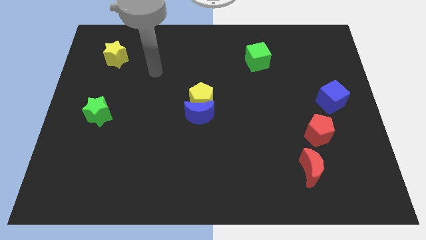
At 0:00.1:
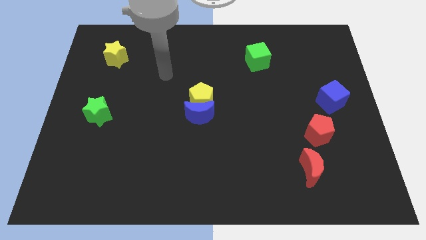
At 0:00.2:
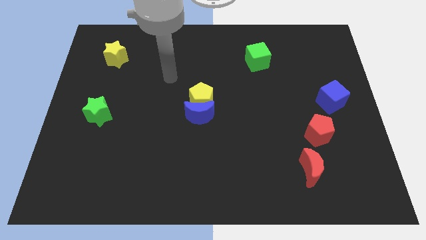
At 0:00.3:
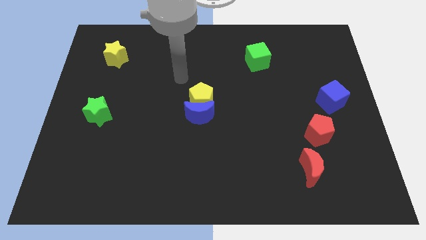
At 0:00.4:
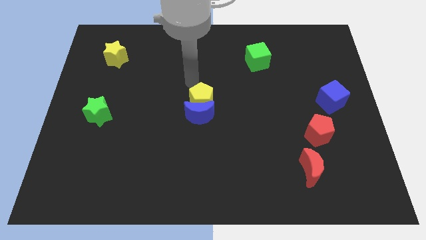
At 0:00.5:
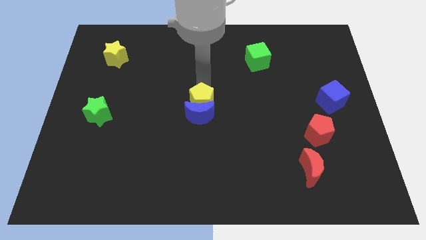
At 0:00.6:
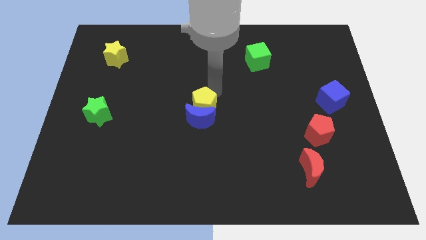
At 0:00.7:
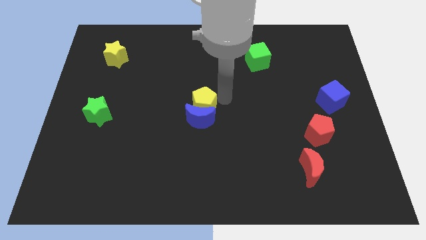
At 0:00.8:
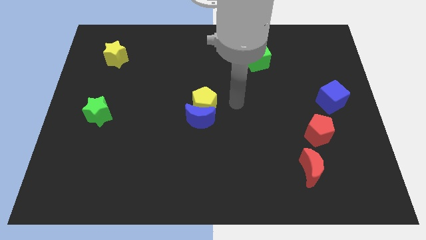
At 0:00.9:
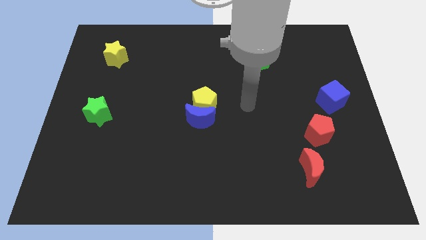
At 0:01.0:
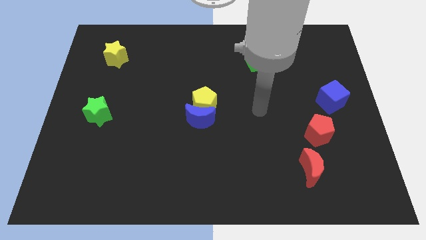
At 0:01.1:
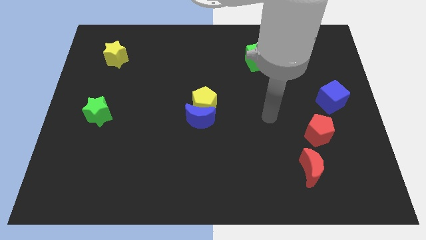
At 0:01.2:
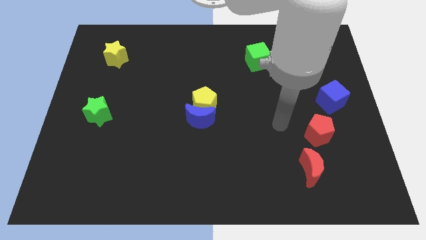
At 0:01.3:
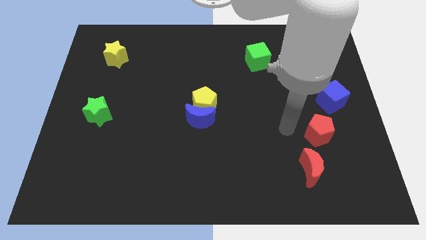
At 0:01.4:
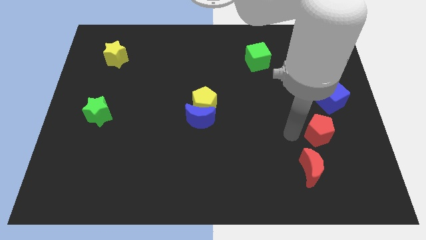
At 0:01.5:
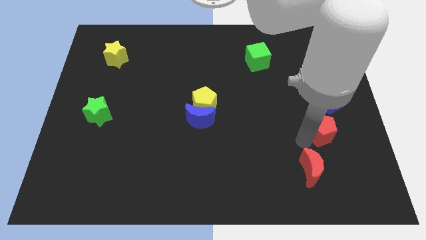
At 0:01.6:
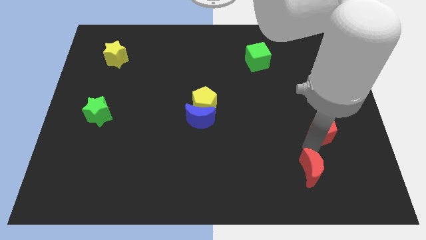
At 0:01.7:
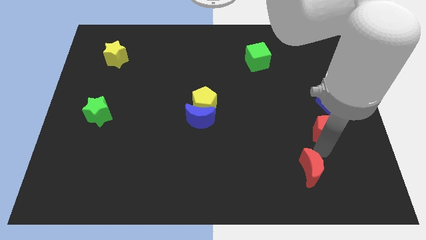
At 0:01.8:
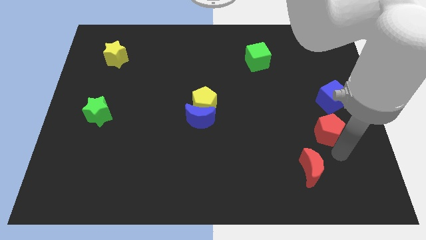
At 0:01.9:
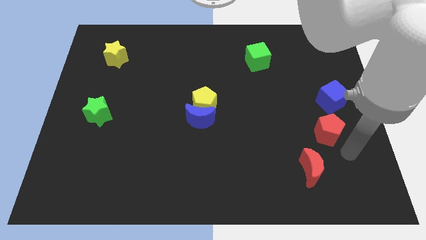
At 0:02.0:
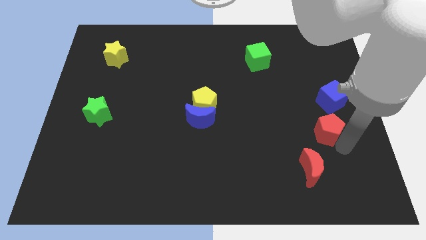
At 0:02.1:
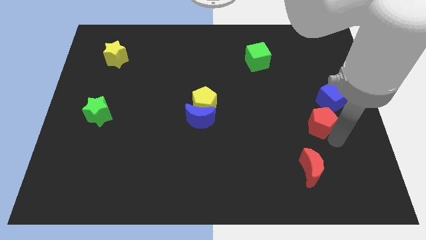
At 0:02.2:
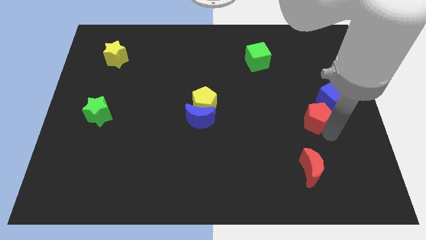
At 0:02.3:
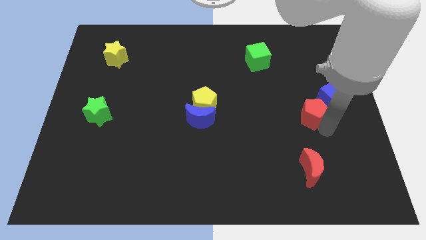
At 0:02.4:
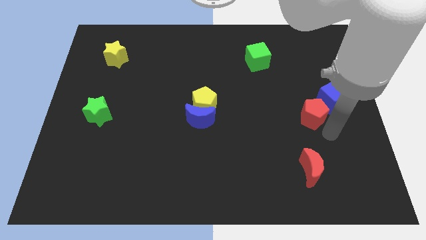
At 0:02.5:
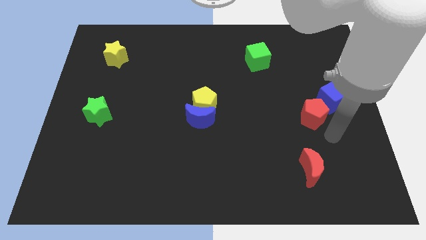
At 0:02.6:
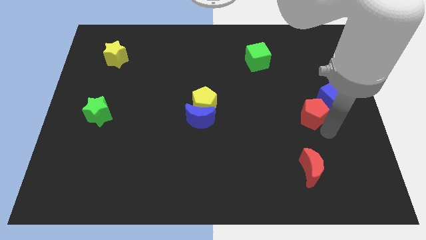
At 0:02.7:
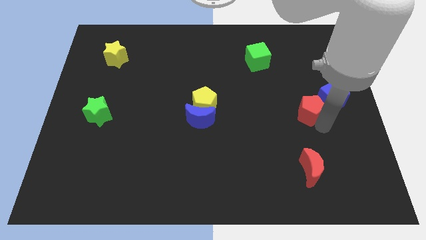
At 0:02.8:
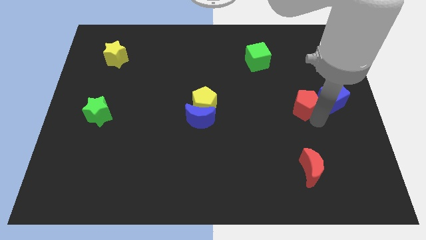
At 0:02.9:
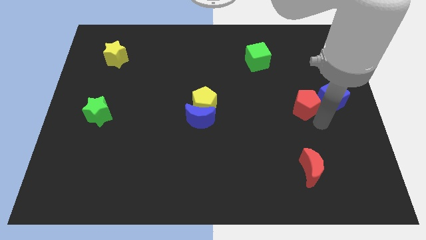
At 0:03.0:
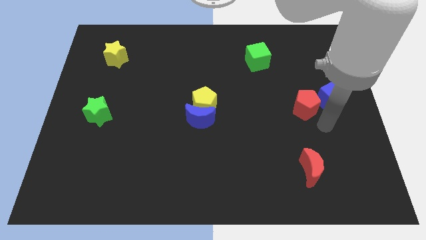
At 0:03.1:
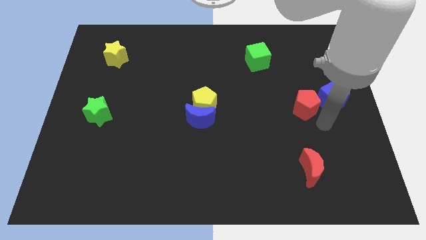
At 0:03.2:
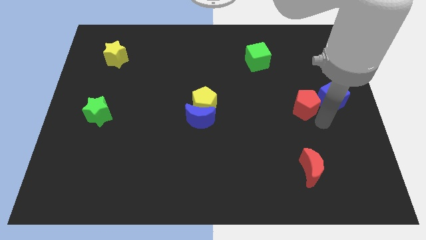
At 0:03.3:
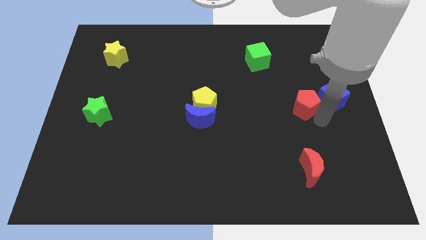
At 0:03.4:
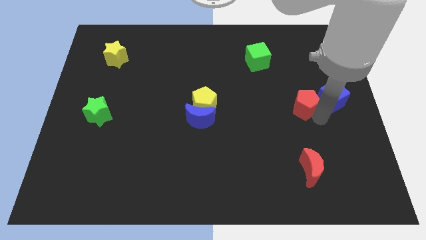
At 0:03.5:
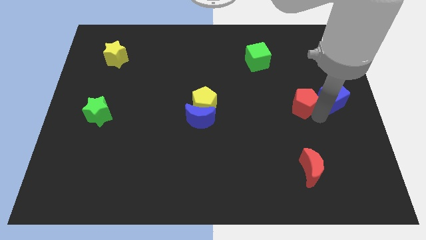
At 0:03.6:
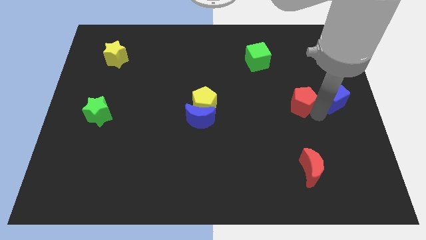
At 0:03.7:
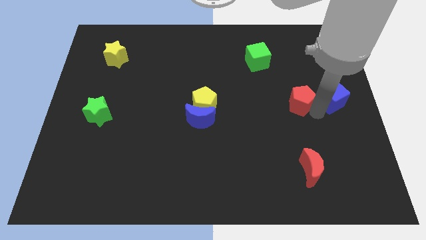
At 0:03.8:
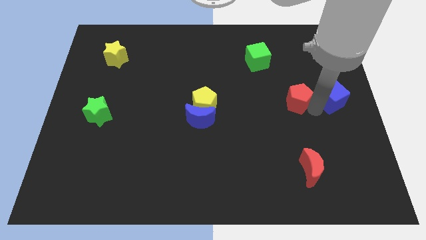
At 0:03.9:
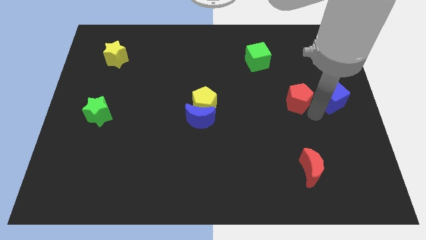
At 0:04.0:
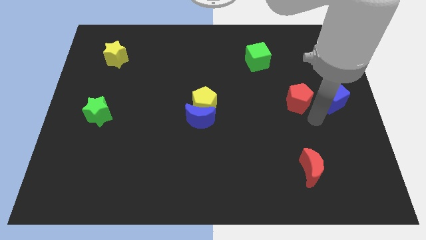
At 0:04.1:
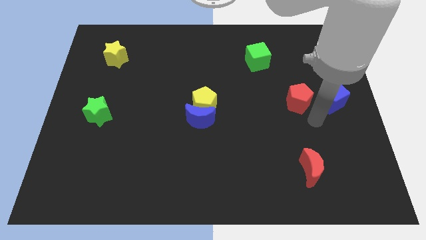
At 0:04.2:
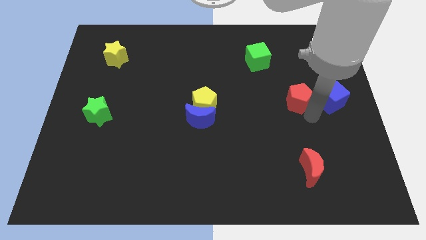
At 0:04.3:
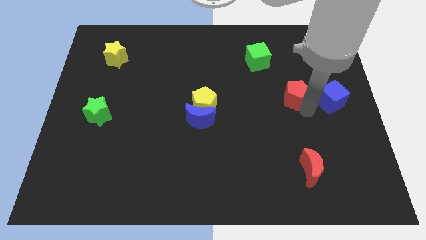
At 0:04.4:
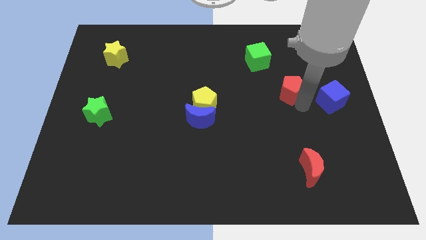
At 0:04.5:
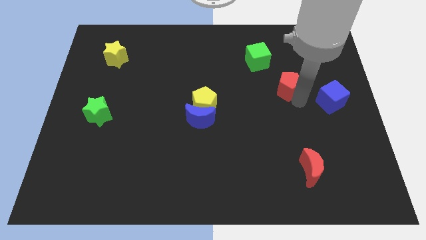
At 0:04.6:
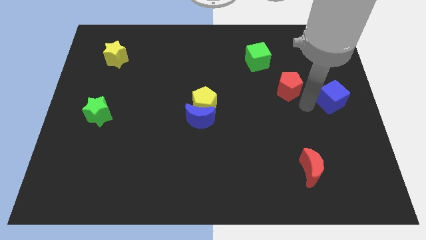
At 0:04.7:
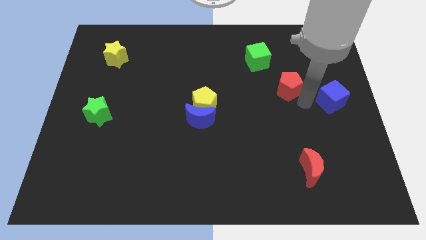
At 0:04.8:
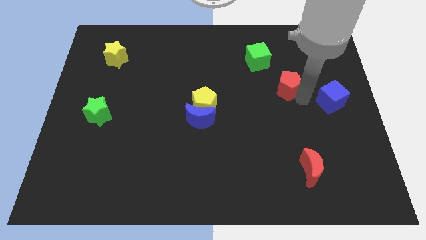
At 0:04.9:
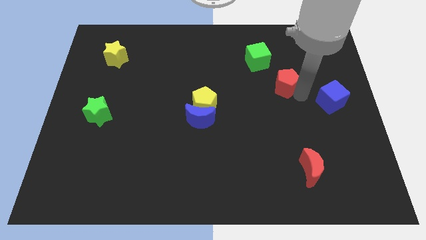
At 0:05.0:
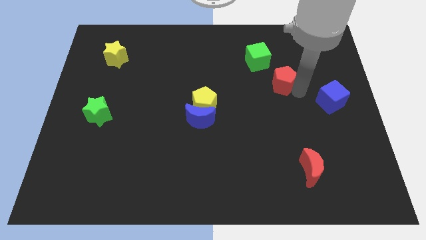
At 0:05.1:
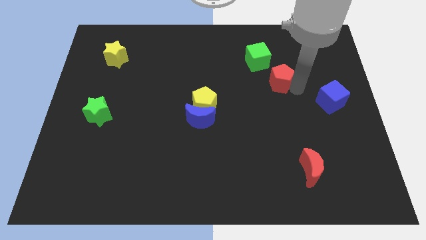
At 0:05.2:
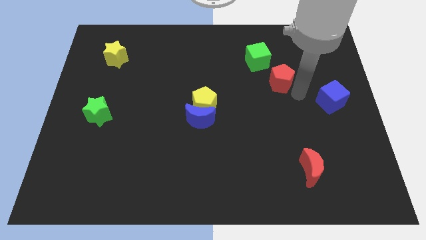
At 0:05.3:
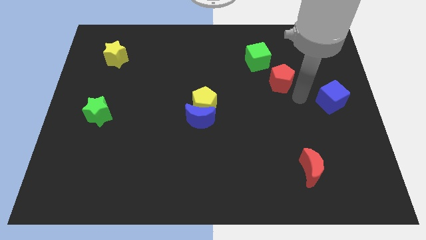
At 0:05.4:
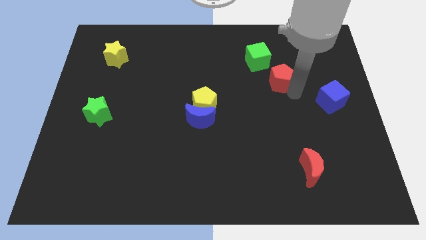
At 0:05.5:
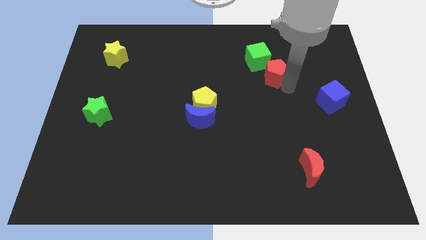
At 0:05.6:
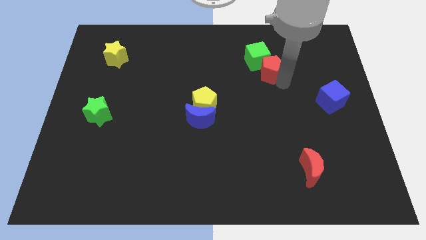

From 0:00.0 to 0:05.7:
move the red pentagon to the green cube

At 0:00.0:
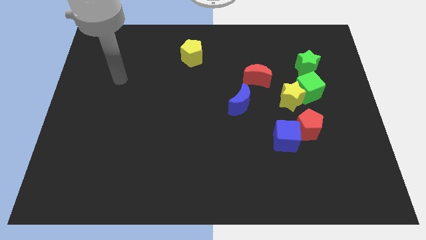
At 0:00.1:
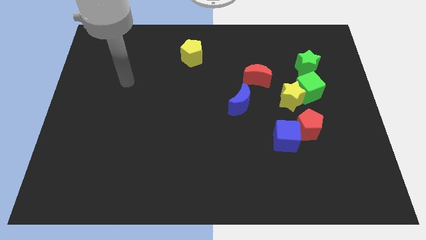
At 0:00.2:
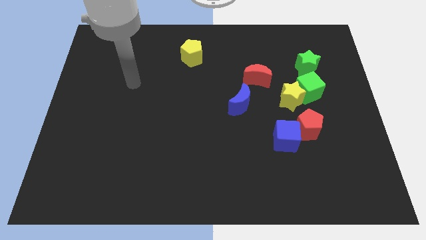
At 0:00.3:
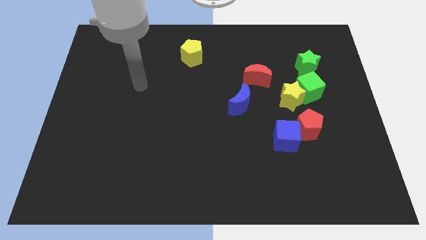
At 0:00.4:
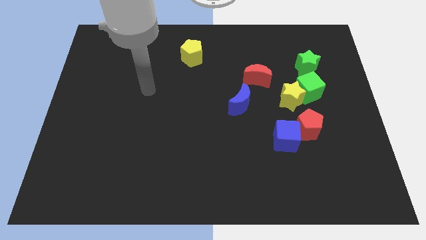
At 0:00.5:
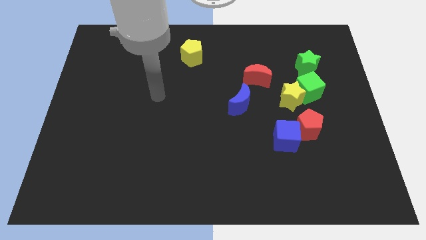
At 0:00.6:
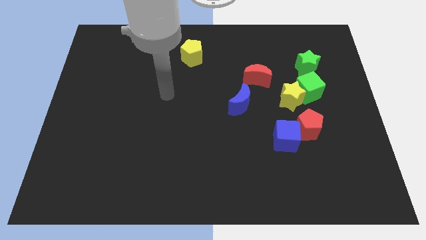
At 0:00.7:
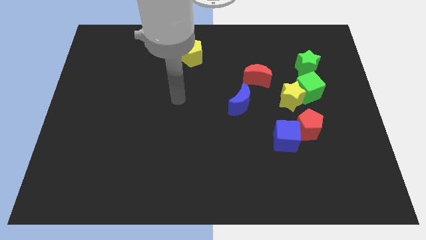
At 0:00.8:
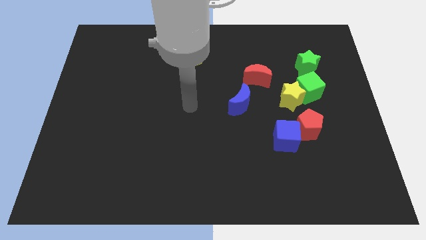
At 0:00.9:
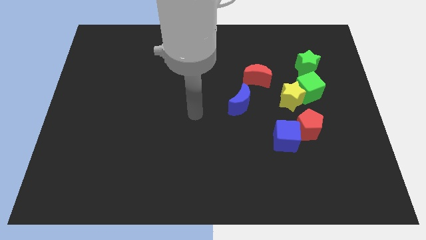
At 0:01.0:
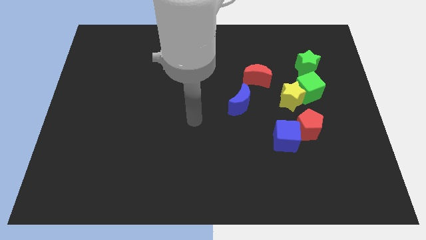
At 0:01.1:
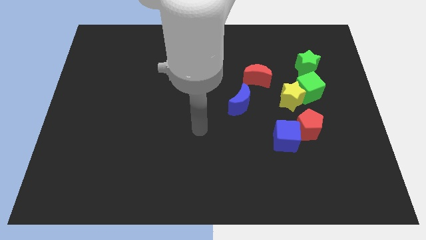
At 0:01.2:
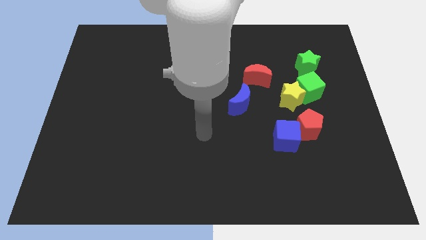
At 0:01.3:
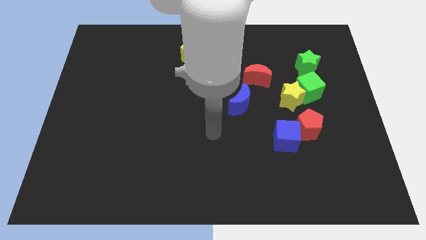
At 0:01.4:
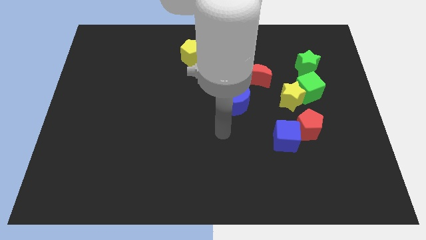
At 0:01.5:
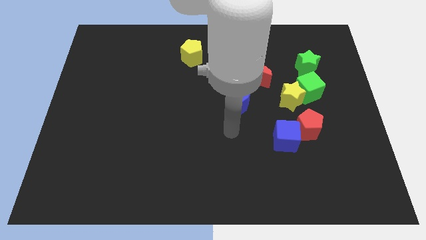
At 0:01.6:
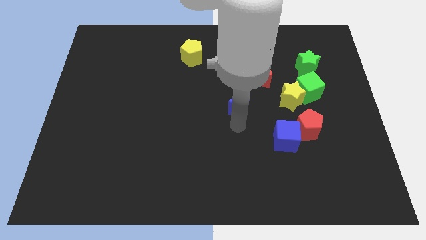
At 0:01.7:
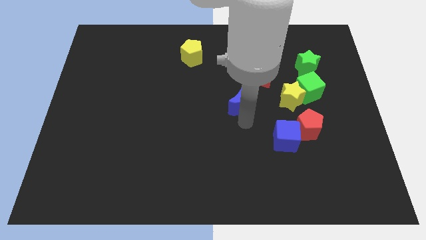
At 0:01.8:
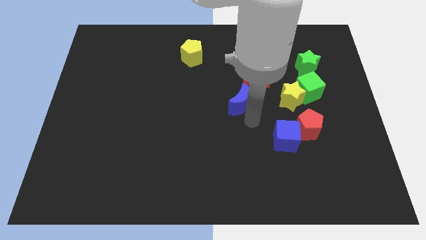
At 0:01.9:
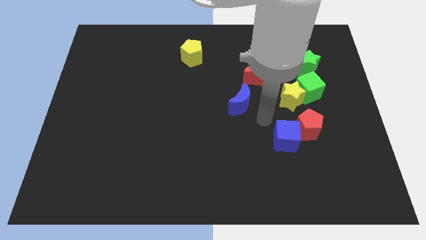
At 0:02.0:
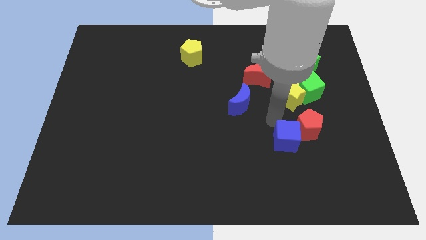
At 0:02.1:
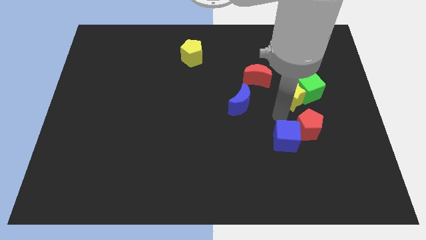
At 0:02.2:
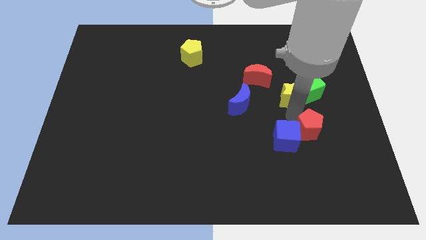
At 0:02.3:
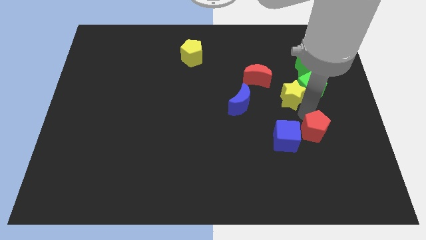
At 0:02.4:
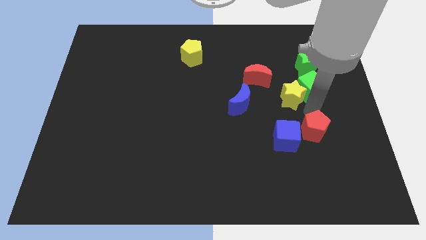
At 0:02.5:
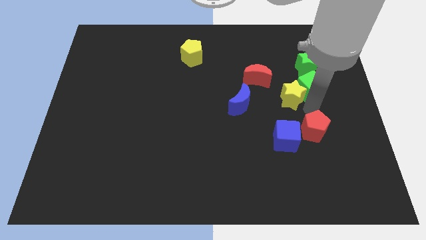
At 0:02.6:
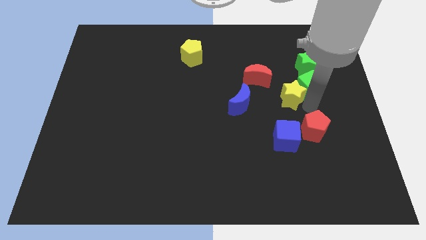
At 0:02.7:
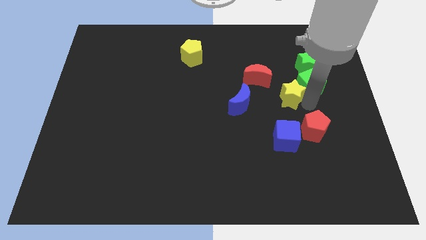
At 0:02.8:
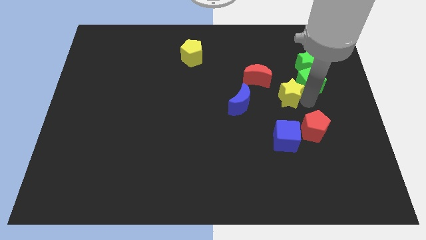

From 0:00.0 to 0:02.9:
slide the green cube close to the green star
